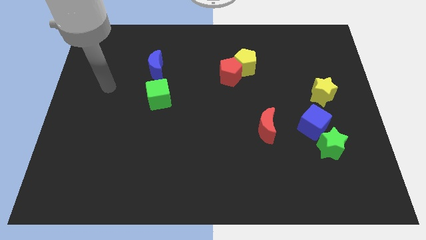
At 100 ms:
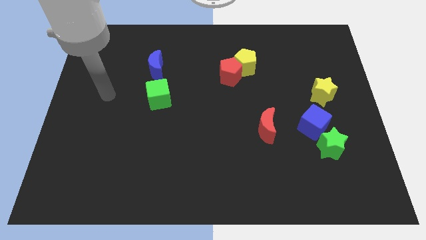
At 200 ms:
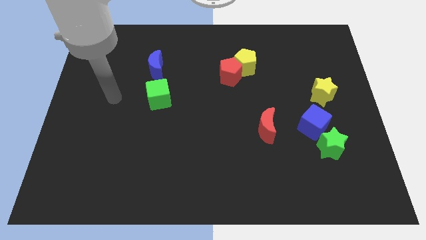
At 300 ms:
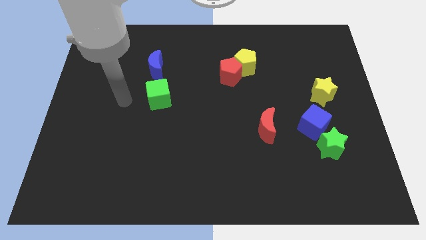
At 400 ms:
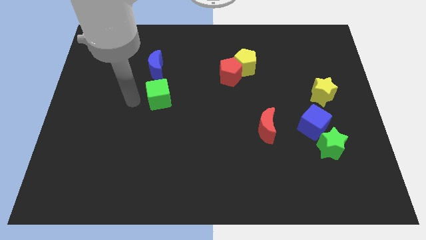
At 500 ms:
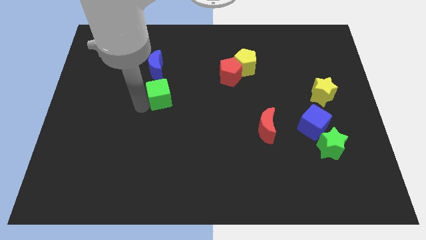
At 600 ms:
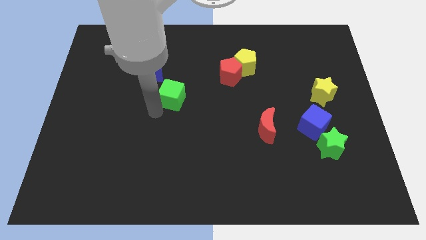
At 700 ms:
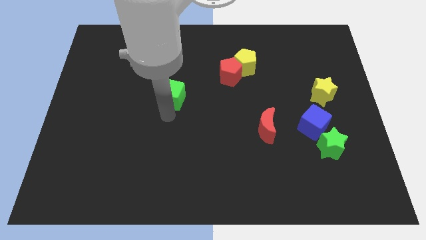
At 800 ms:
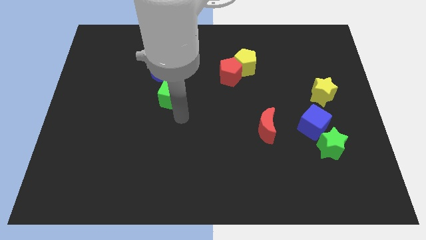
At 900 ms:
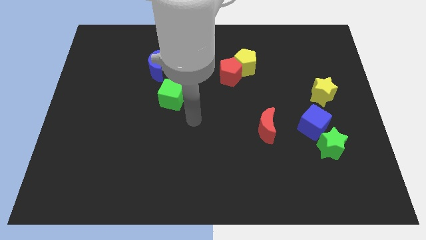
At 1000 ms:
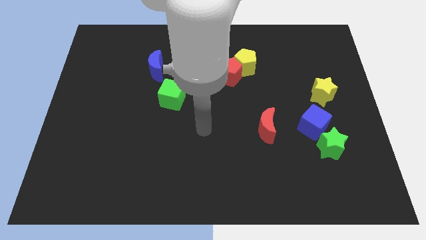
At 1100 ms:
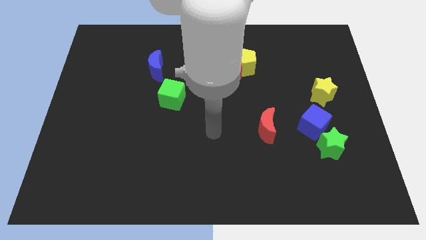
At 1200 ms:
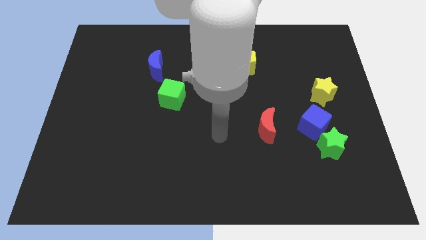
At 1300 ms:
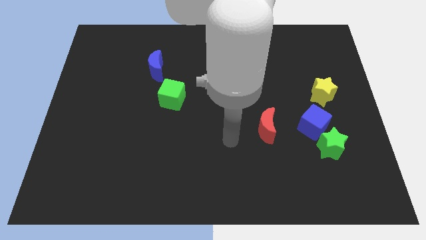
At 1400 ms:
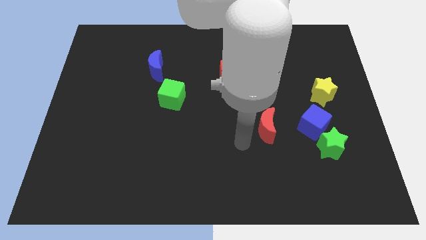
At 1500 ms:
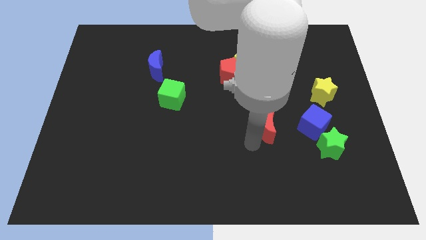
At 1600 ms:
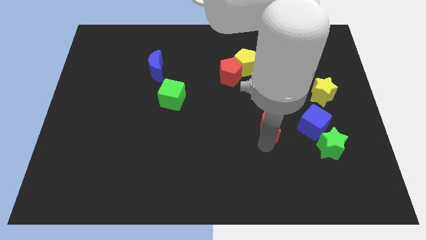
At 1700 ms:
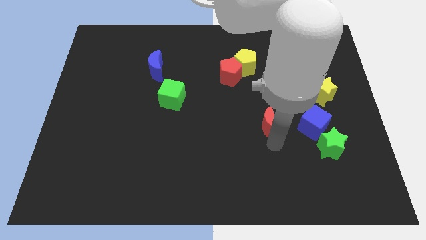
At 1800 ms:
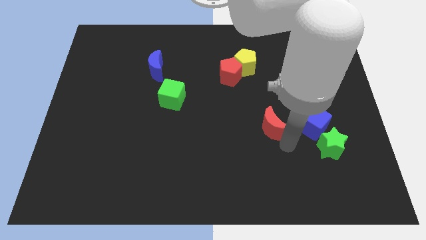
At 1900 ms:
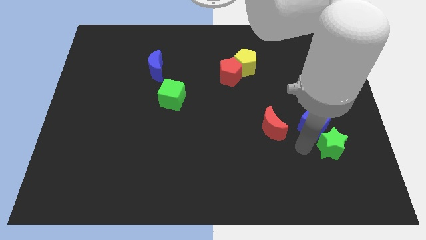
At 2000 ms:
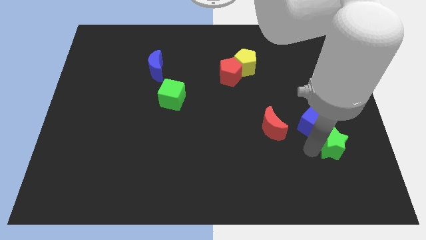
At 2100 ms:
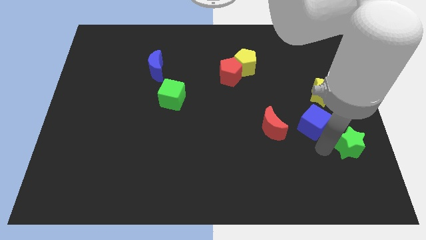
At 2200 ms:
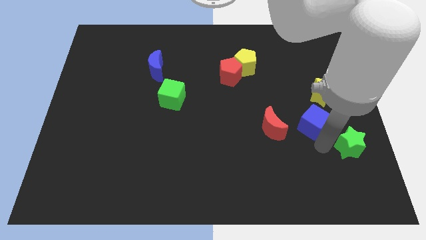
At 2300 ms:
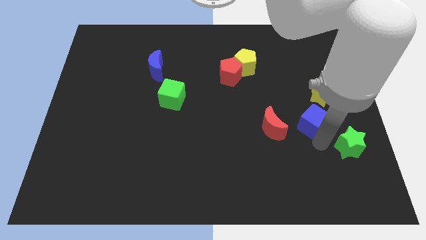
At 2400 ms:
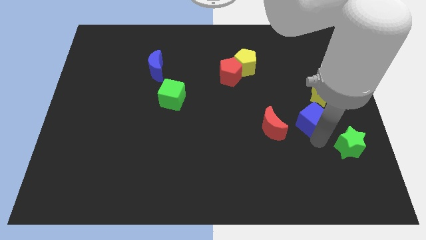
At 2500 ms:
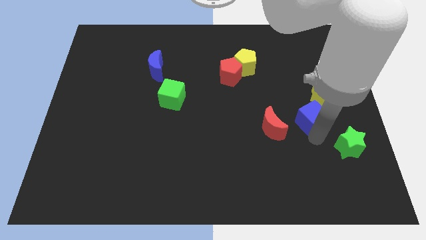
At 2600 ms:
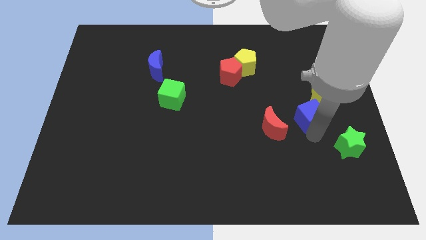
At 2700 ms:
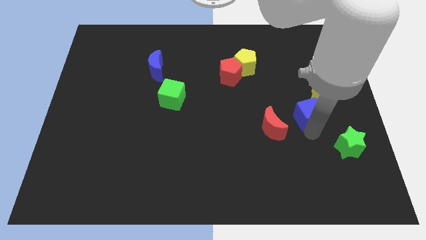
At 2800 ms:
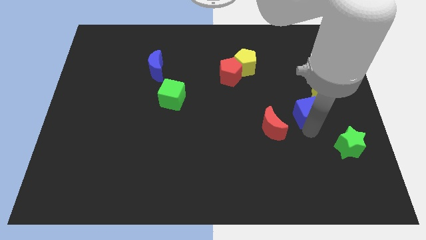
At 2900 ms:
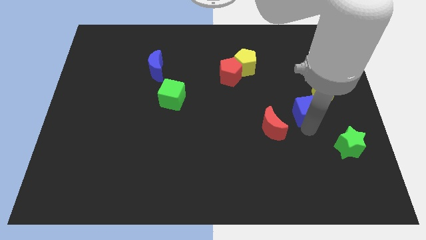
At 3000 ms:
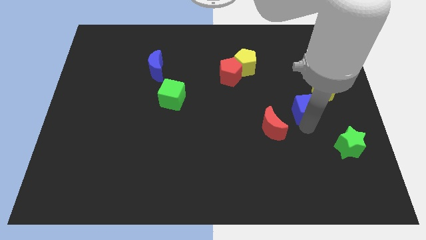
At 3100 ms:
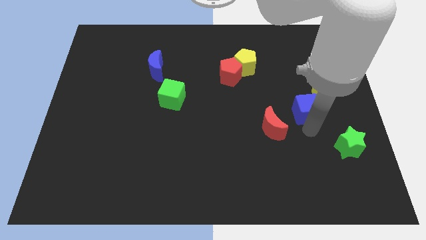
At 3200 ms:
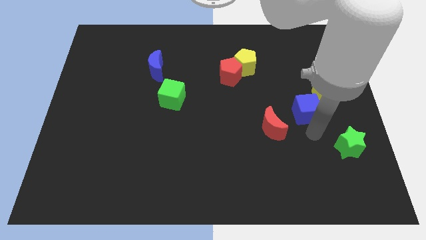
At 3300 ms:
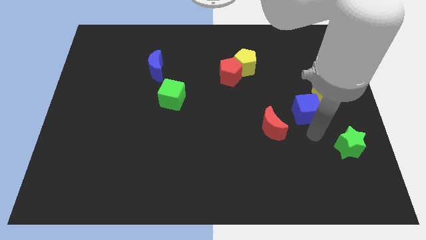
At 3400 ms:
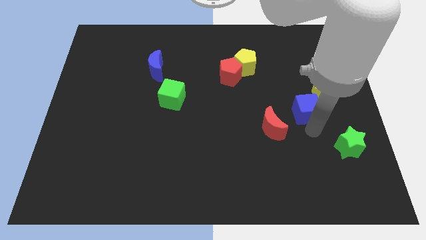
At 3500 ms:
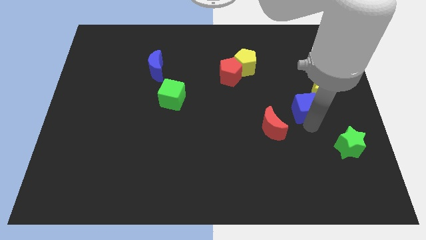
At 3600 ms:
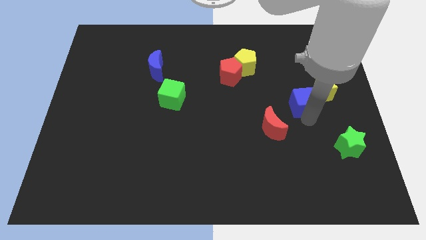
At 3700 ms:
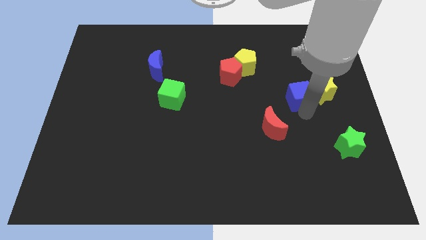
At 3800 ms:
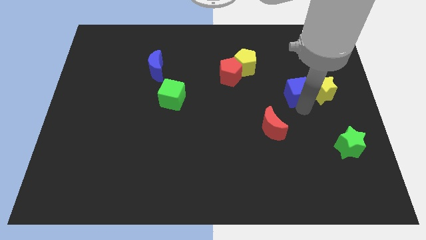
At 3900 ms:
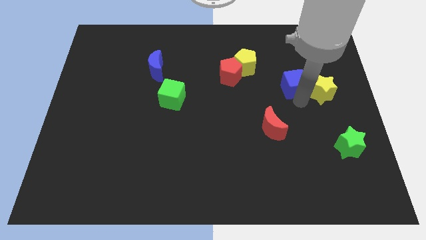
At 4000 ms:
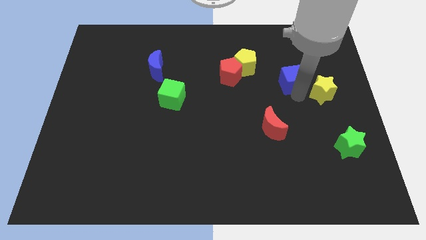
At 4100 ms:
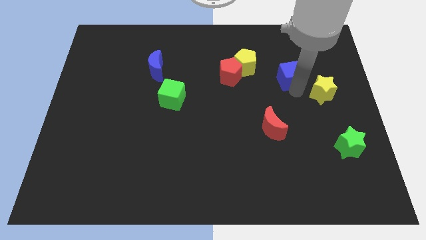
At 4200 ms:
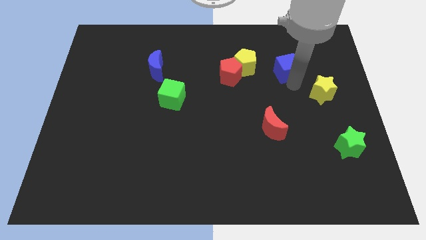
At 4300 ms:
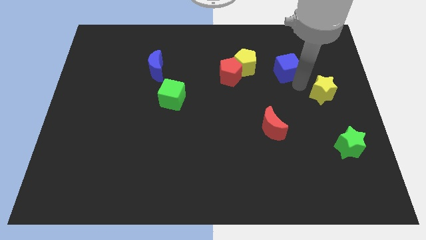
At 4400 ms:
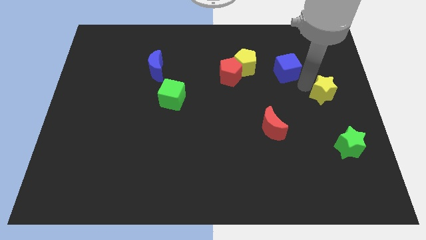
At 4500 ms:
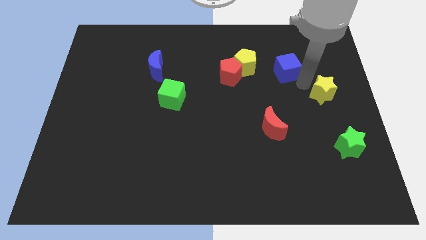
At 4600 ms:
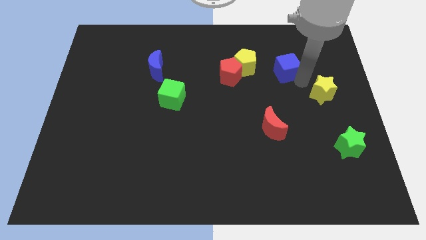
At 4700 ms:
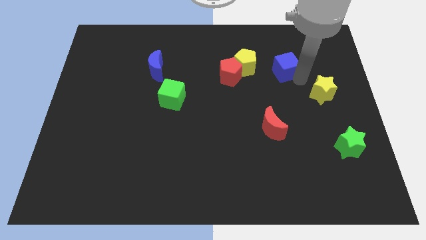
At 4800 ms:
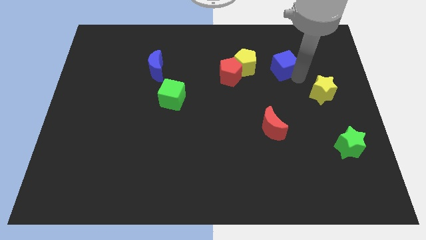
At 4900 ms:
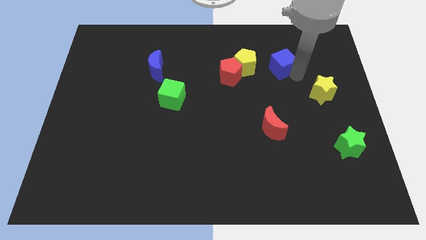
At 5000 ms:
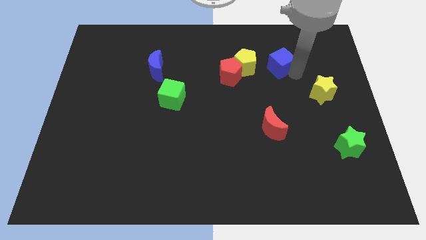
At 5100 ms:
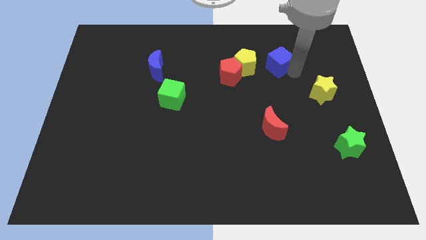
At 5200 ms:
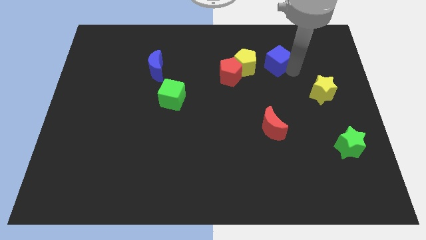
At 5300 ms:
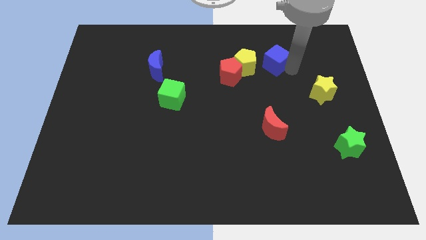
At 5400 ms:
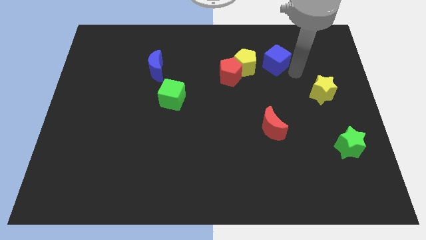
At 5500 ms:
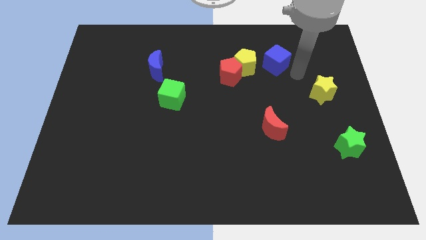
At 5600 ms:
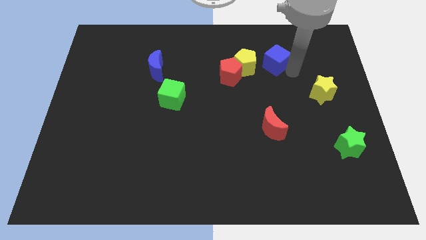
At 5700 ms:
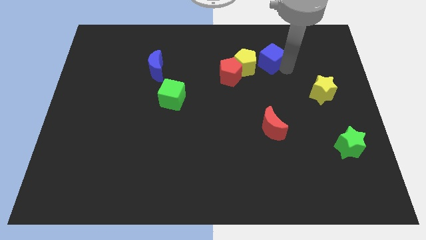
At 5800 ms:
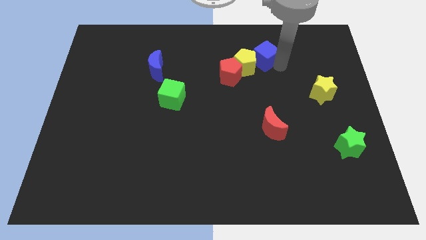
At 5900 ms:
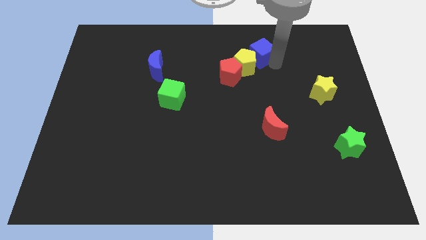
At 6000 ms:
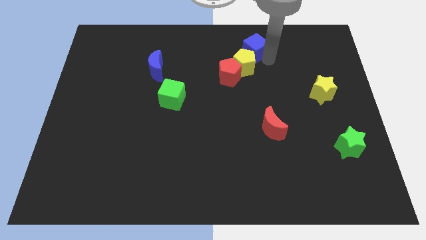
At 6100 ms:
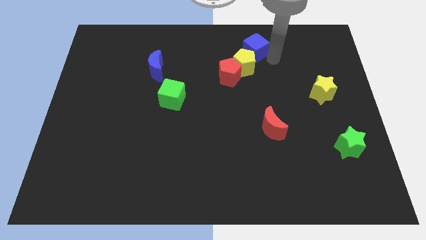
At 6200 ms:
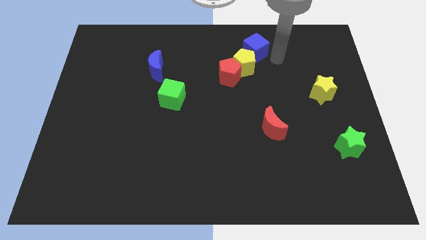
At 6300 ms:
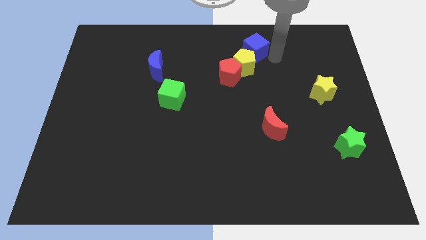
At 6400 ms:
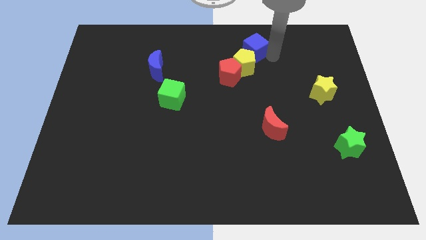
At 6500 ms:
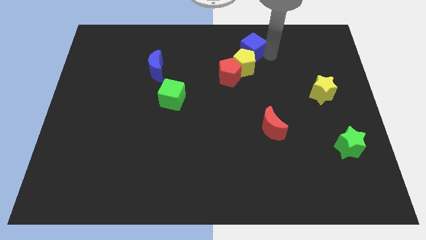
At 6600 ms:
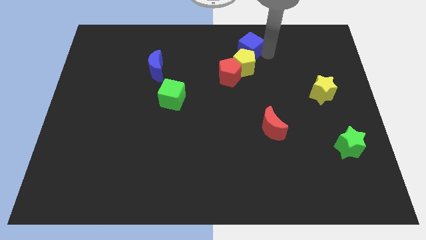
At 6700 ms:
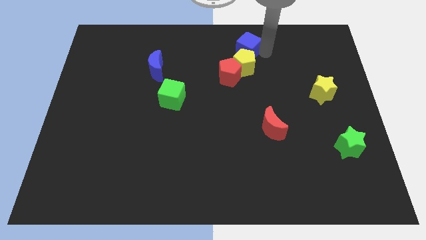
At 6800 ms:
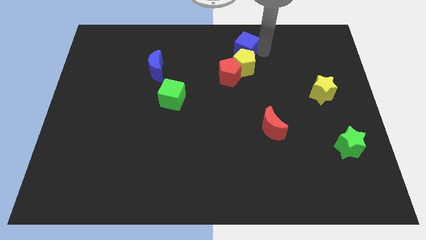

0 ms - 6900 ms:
slide the blue cube to the top
